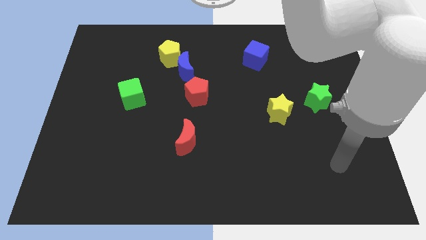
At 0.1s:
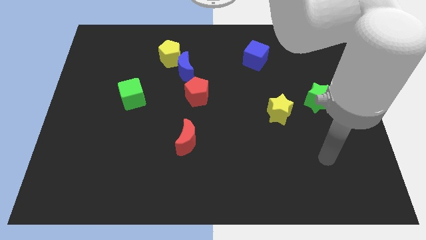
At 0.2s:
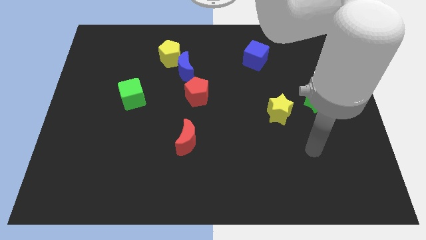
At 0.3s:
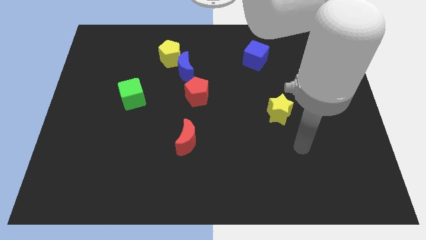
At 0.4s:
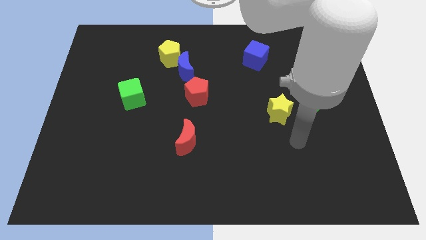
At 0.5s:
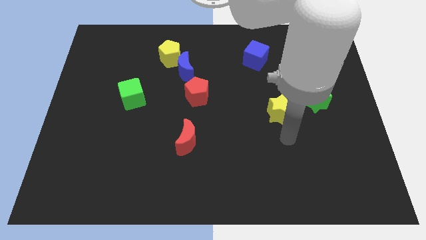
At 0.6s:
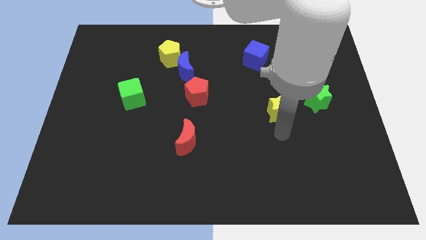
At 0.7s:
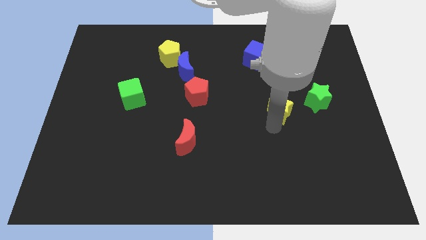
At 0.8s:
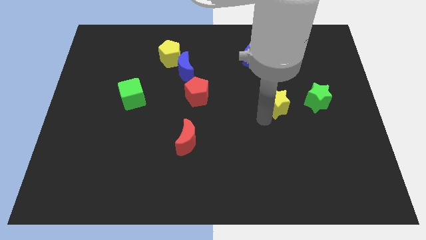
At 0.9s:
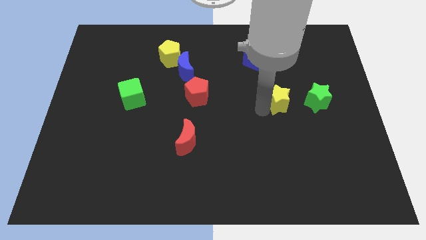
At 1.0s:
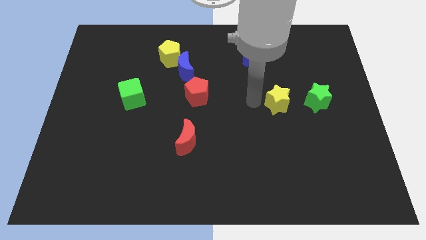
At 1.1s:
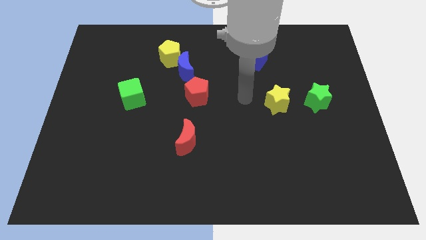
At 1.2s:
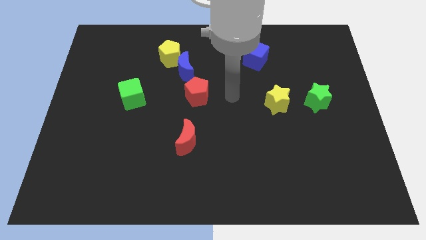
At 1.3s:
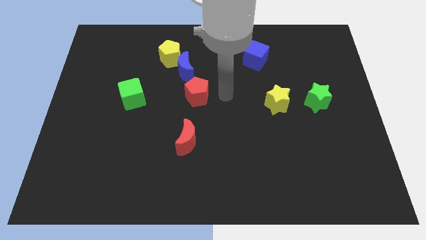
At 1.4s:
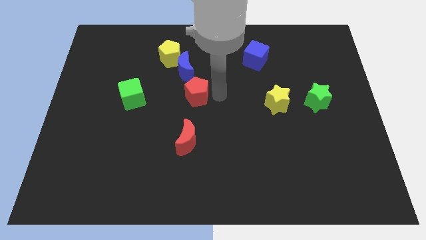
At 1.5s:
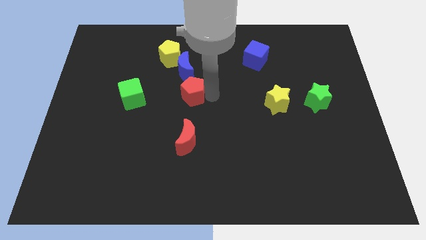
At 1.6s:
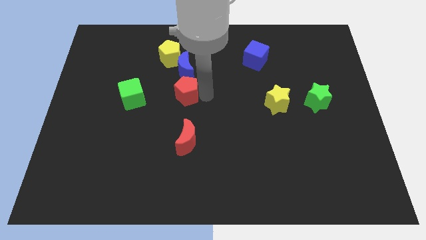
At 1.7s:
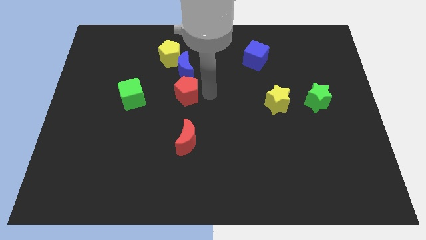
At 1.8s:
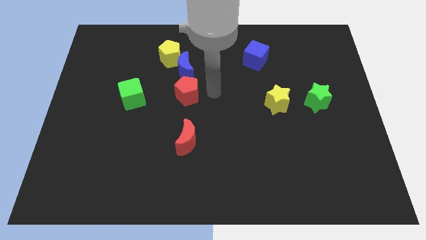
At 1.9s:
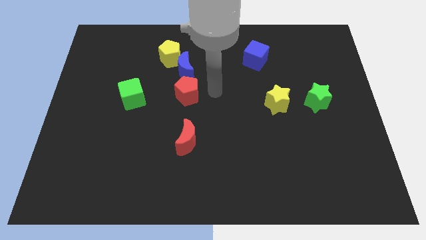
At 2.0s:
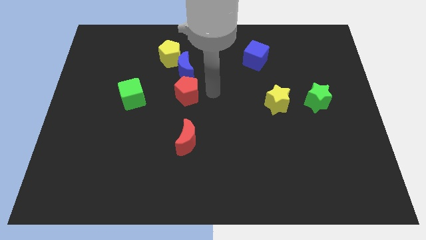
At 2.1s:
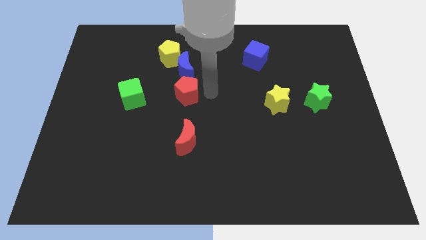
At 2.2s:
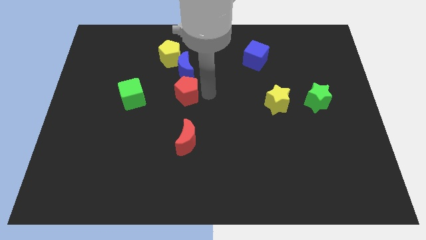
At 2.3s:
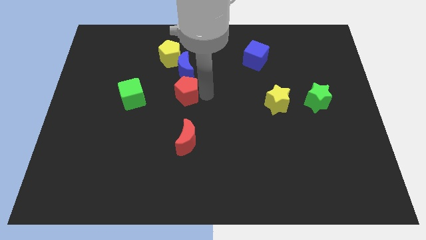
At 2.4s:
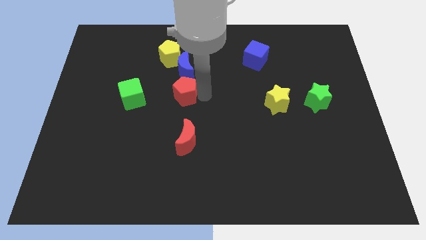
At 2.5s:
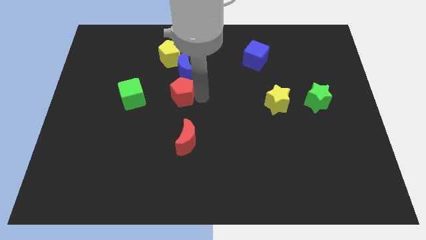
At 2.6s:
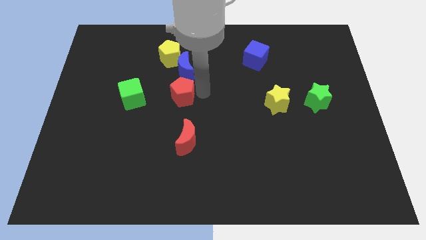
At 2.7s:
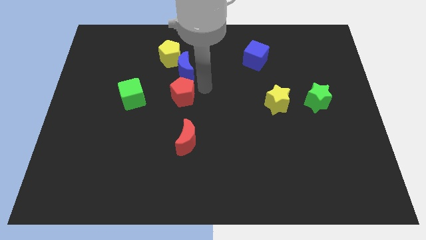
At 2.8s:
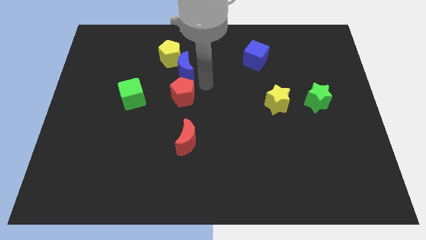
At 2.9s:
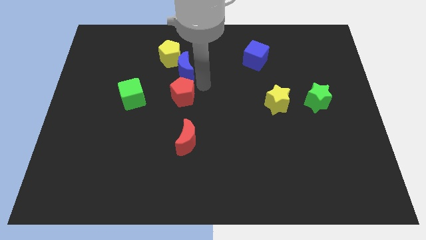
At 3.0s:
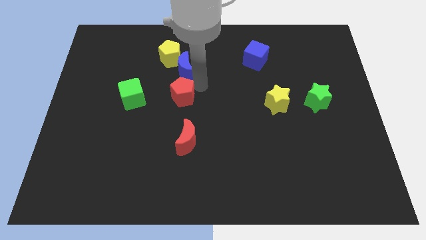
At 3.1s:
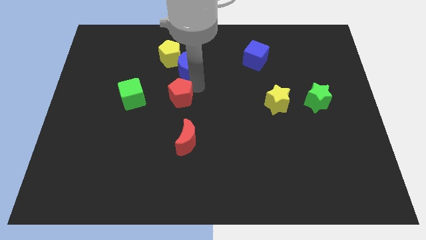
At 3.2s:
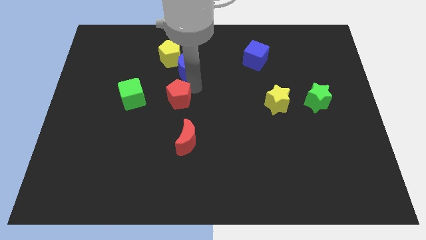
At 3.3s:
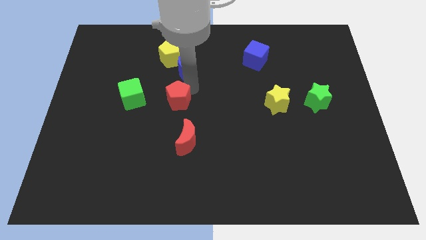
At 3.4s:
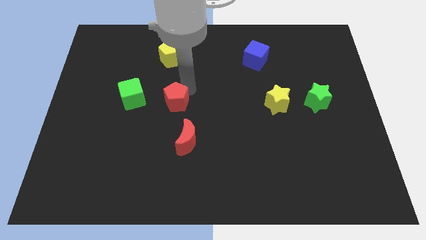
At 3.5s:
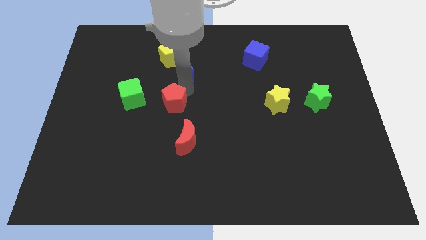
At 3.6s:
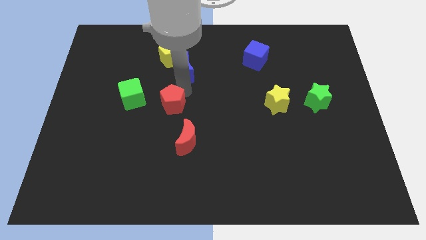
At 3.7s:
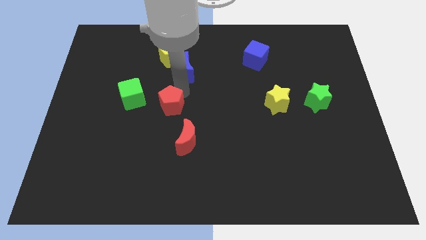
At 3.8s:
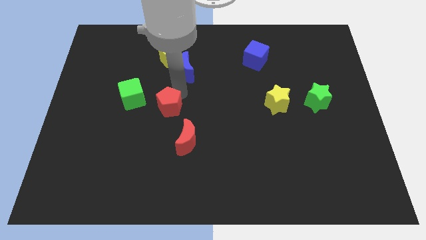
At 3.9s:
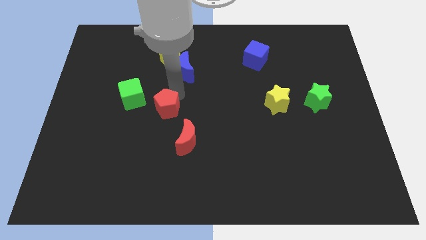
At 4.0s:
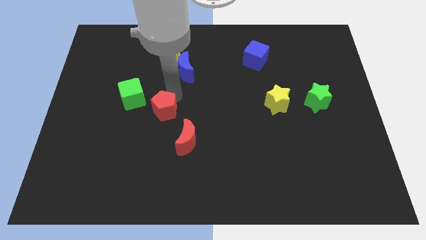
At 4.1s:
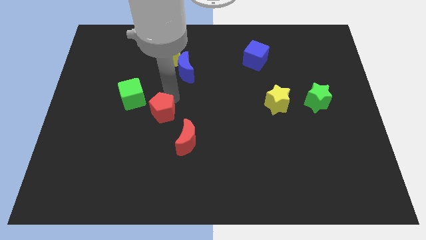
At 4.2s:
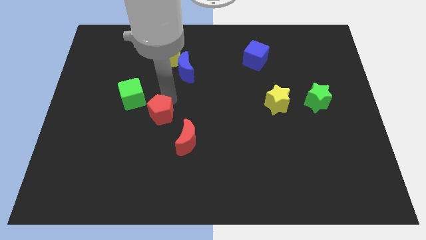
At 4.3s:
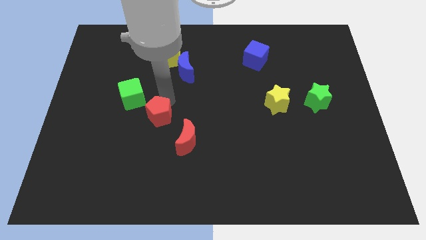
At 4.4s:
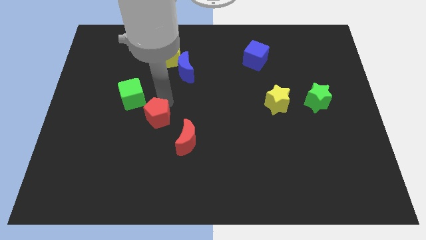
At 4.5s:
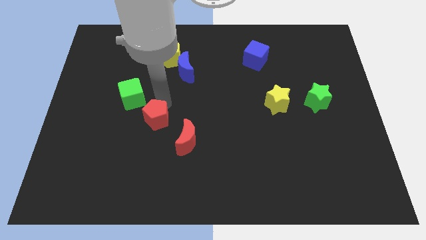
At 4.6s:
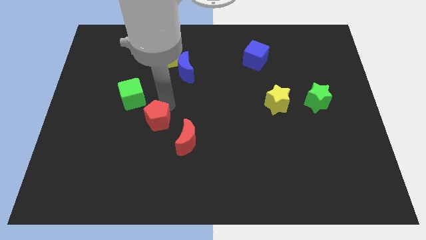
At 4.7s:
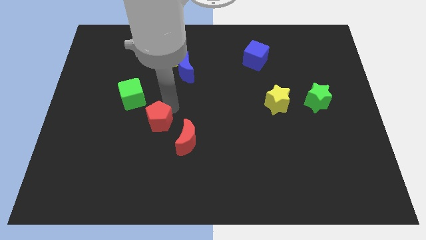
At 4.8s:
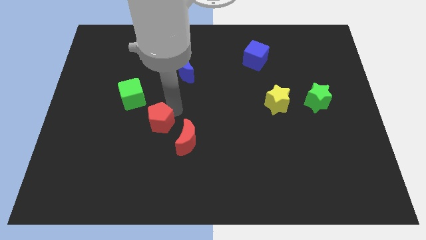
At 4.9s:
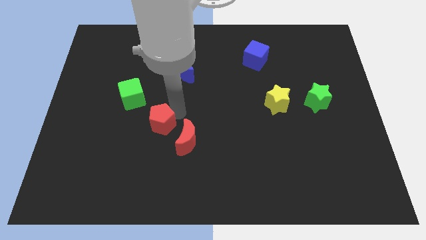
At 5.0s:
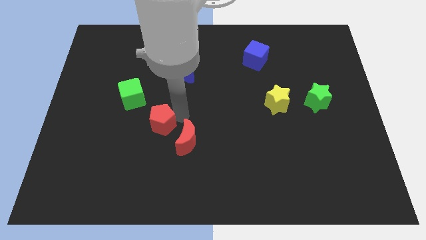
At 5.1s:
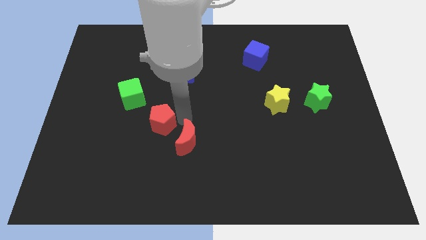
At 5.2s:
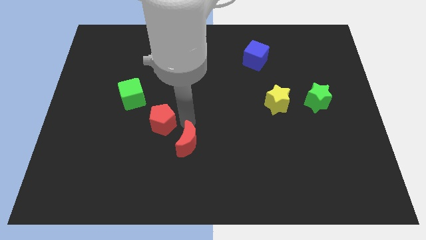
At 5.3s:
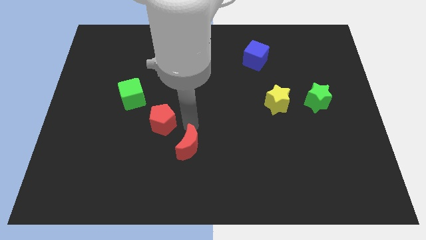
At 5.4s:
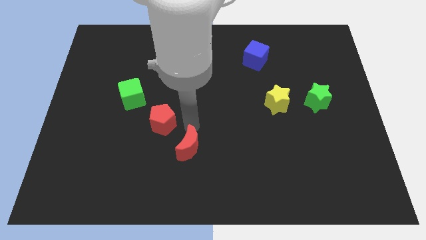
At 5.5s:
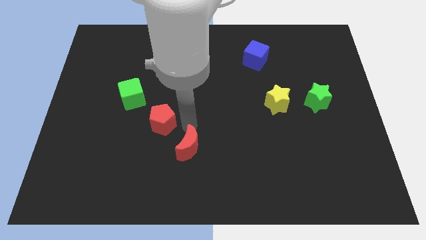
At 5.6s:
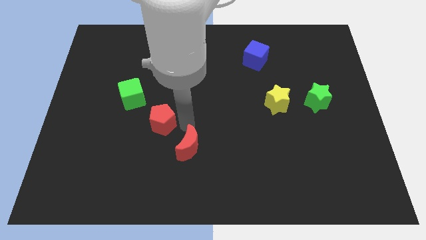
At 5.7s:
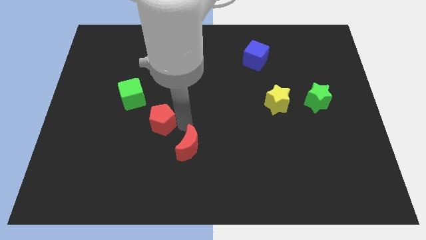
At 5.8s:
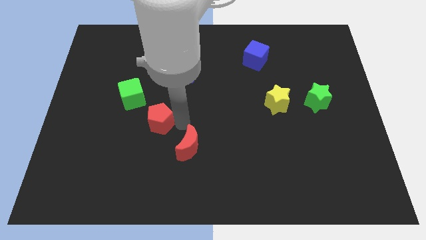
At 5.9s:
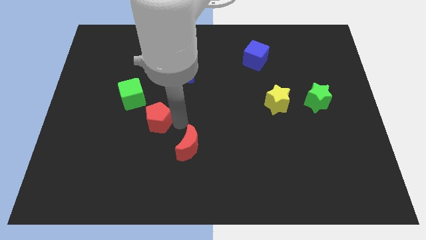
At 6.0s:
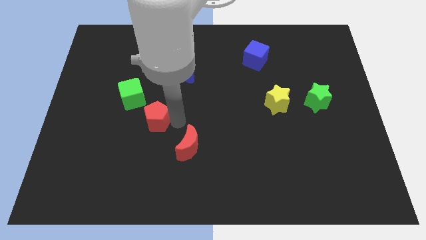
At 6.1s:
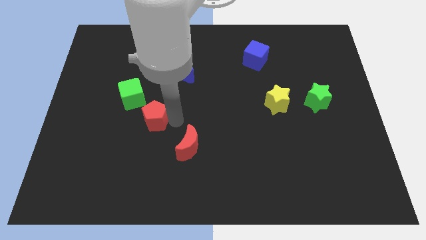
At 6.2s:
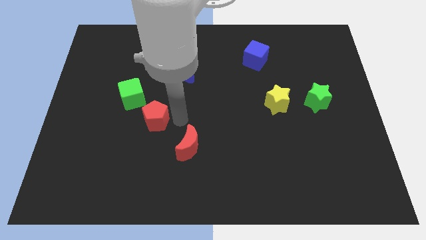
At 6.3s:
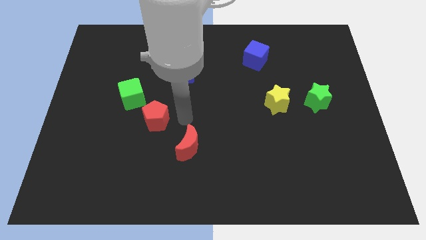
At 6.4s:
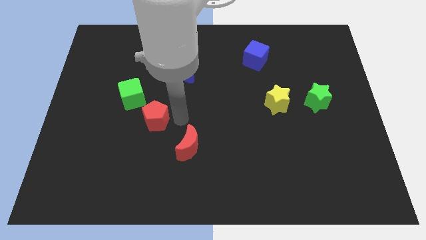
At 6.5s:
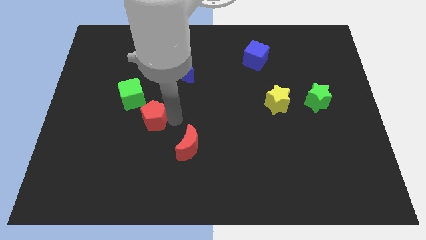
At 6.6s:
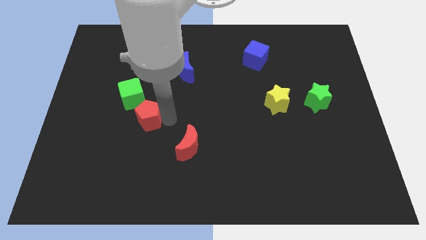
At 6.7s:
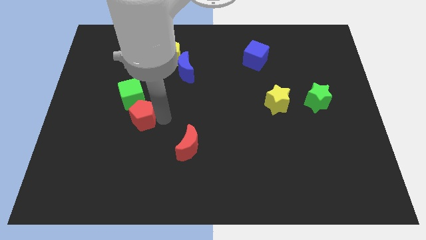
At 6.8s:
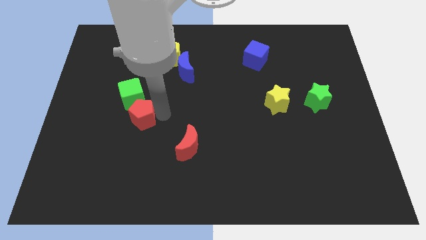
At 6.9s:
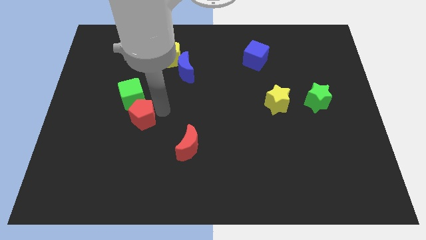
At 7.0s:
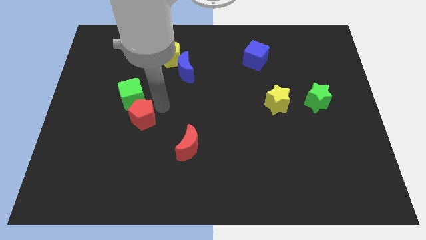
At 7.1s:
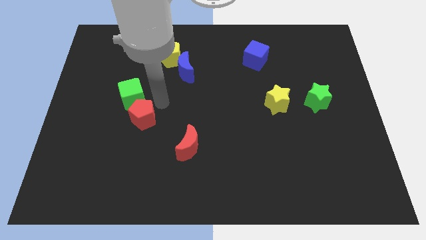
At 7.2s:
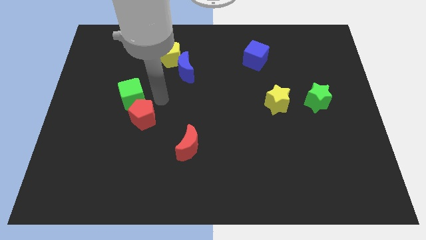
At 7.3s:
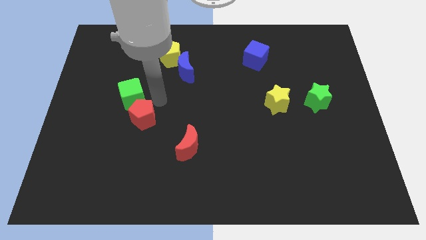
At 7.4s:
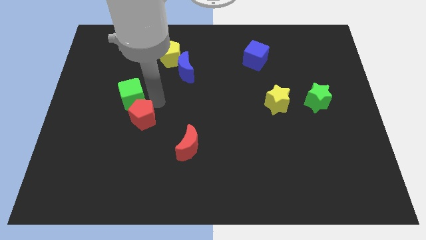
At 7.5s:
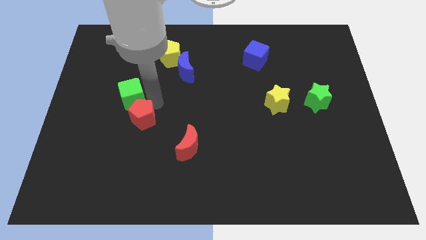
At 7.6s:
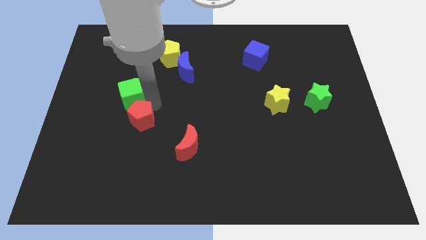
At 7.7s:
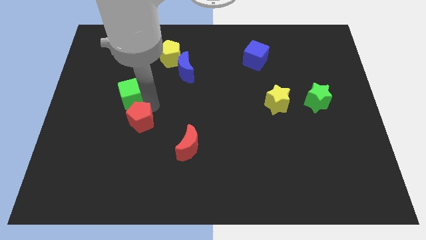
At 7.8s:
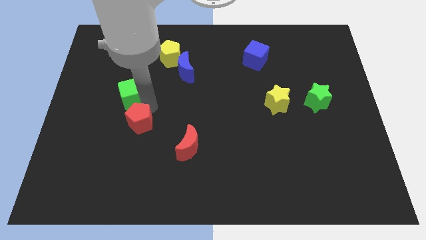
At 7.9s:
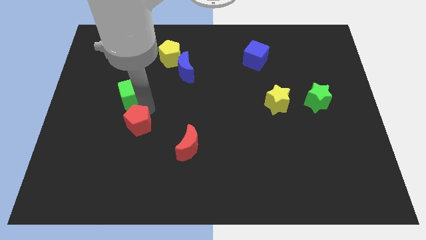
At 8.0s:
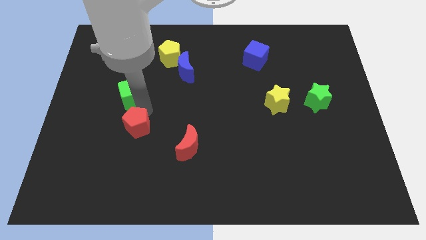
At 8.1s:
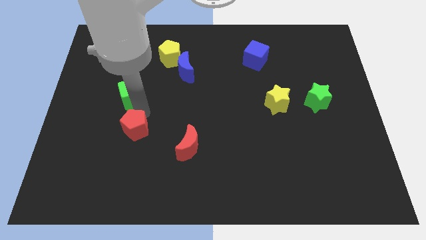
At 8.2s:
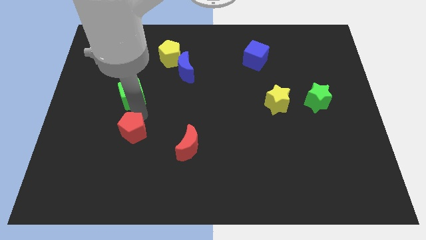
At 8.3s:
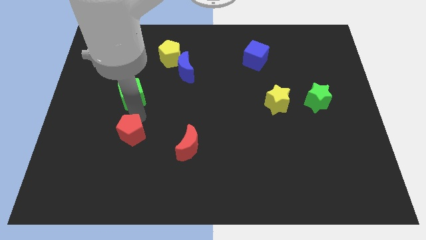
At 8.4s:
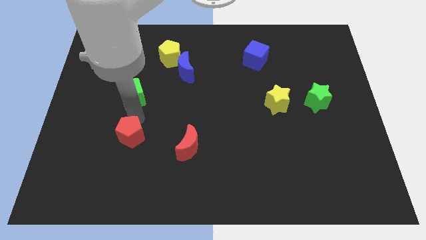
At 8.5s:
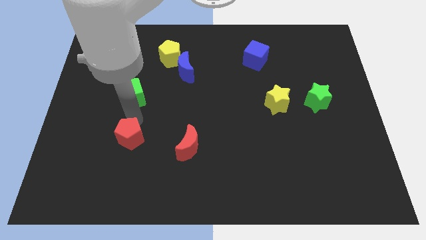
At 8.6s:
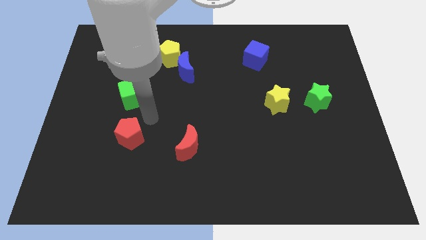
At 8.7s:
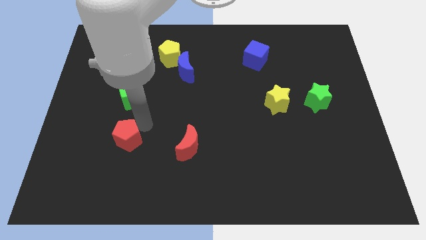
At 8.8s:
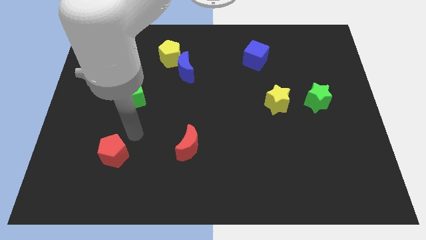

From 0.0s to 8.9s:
move the red pentagon downwards and to the left diagonally
